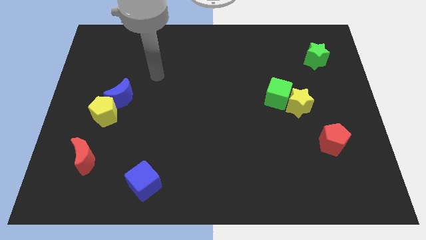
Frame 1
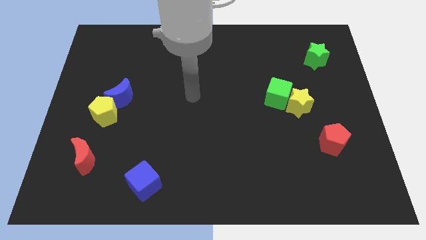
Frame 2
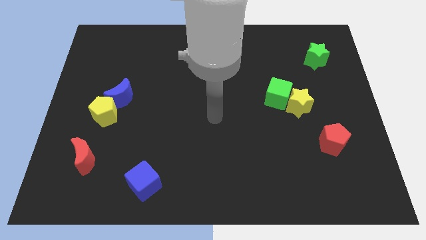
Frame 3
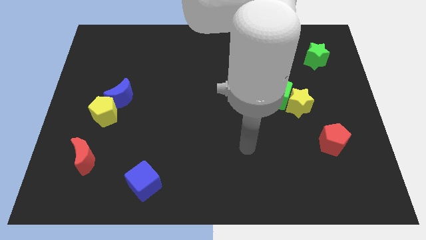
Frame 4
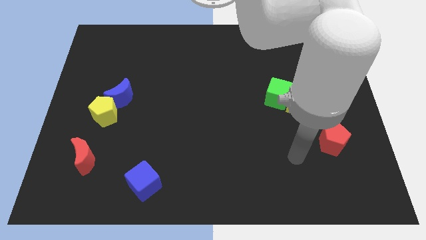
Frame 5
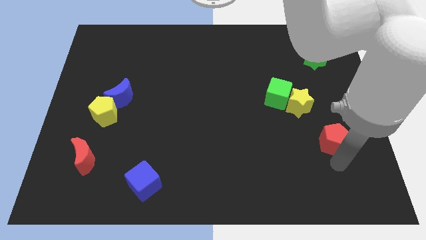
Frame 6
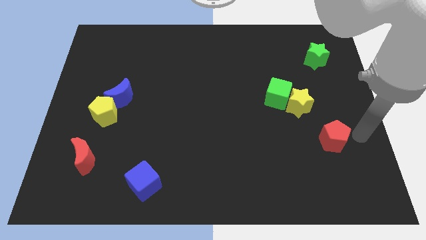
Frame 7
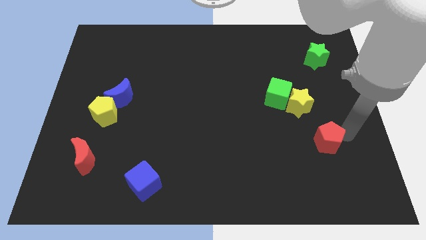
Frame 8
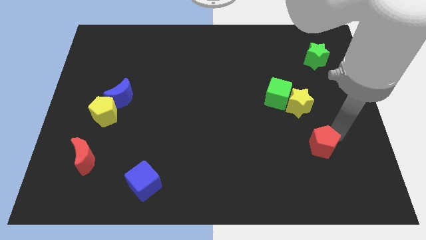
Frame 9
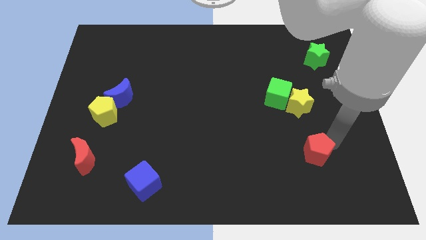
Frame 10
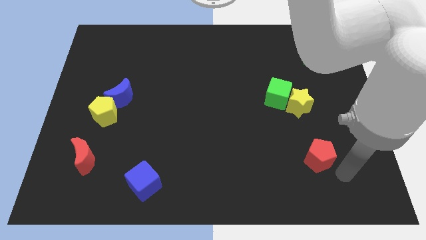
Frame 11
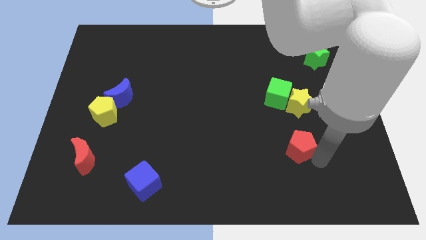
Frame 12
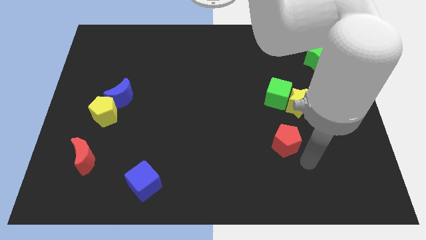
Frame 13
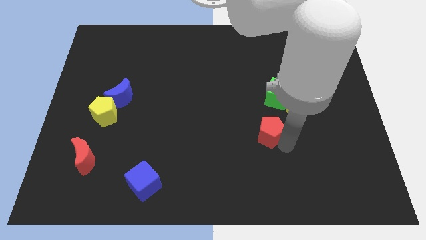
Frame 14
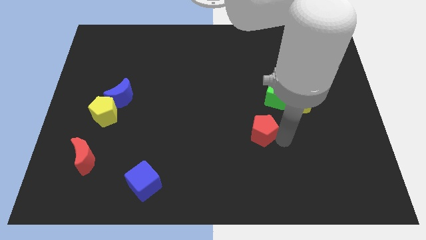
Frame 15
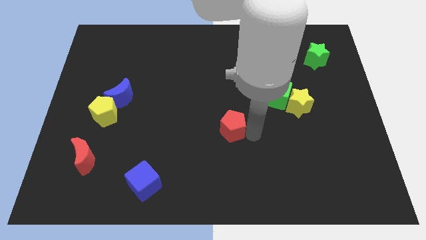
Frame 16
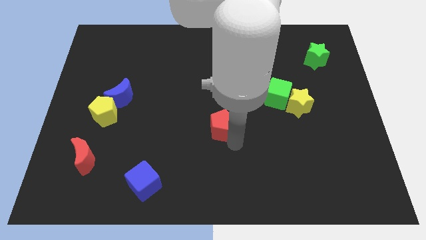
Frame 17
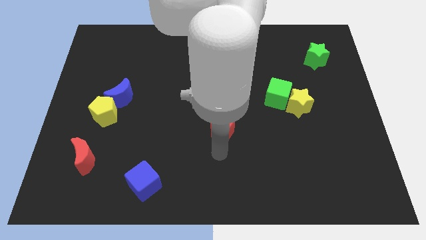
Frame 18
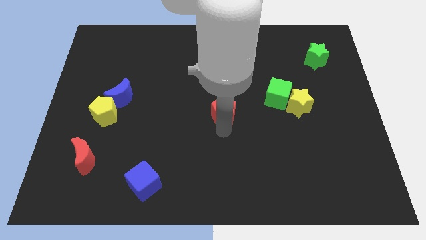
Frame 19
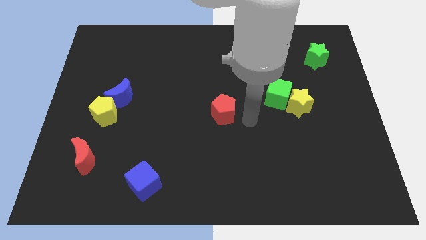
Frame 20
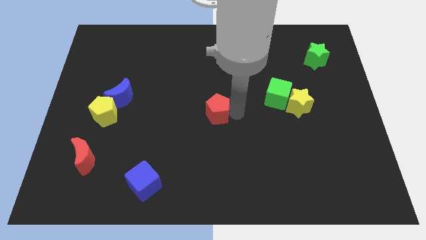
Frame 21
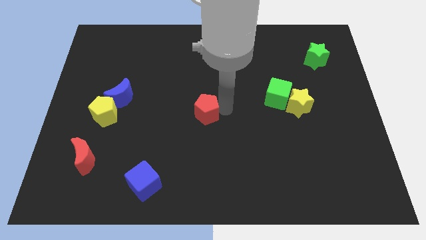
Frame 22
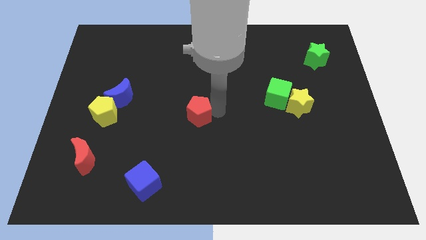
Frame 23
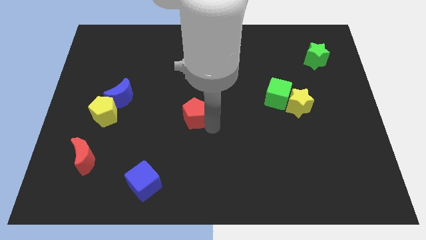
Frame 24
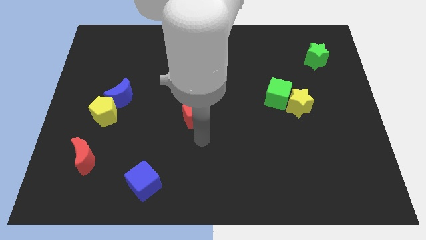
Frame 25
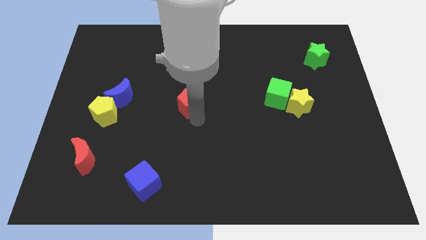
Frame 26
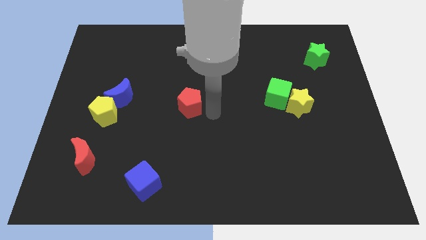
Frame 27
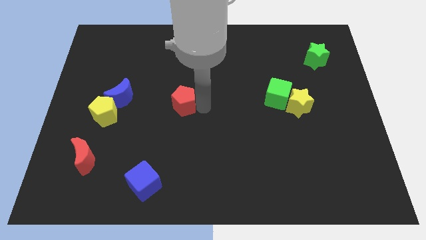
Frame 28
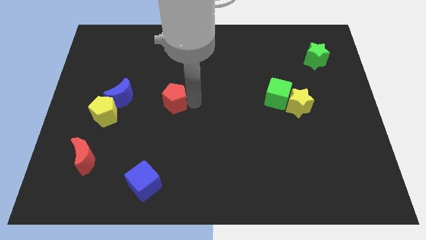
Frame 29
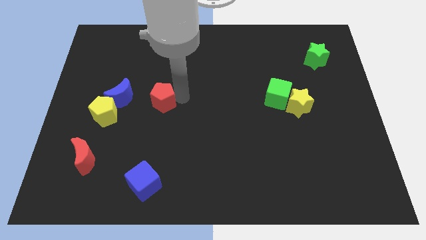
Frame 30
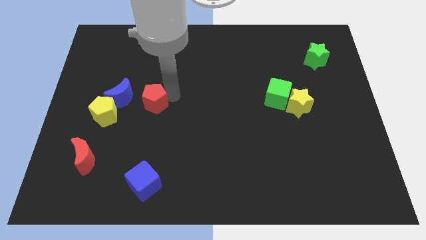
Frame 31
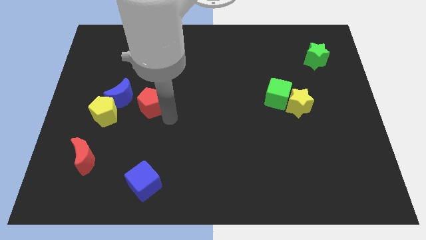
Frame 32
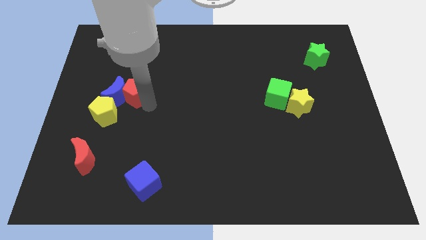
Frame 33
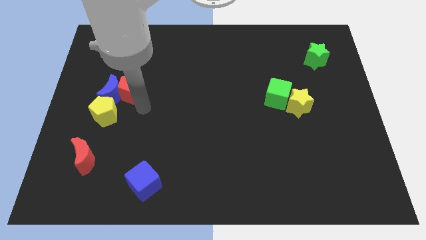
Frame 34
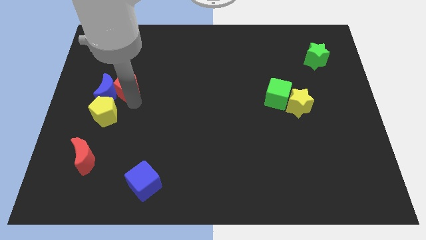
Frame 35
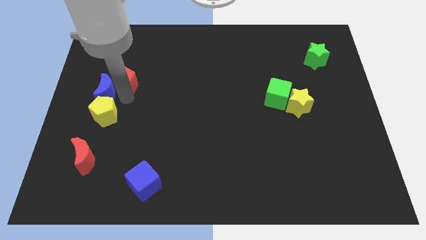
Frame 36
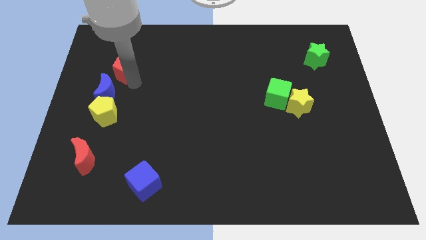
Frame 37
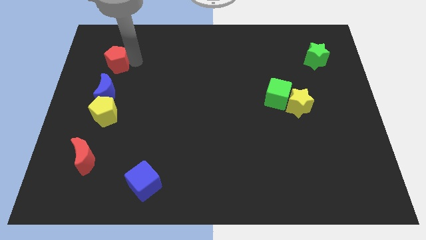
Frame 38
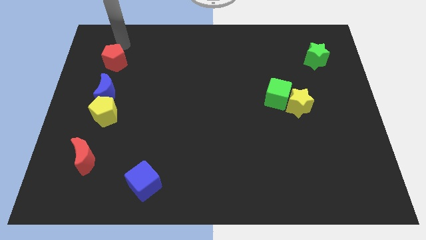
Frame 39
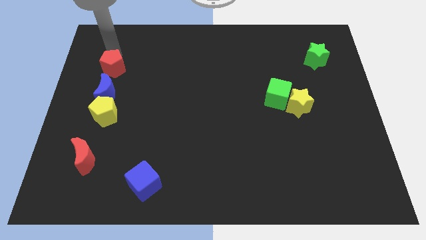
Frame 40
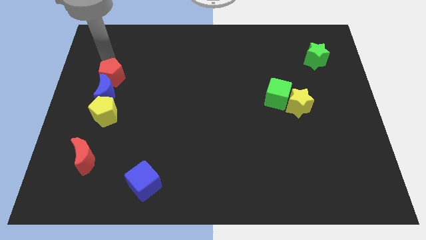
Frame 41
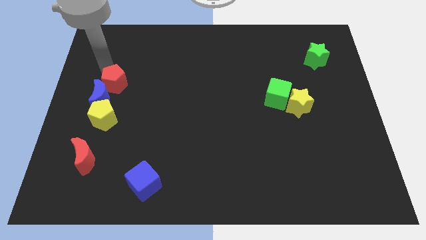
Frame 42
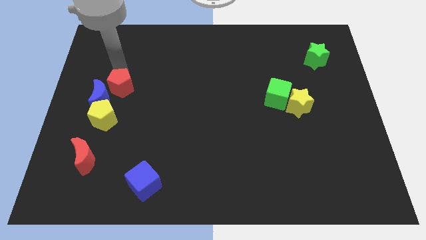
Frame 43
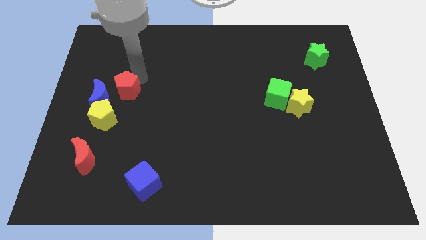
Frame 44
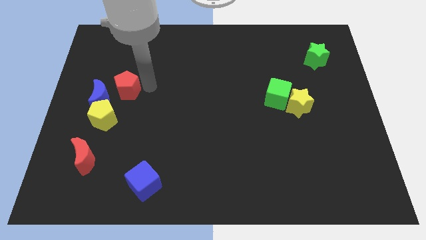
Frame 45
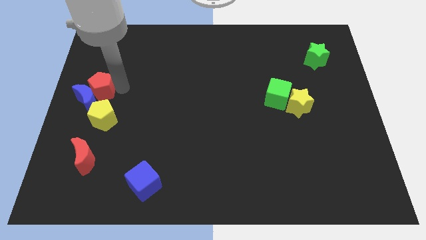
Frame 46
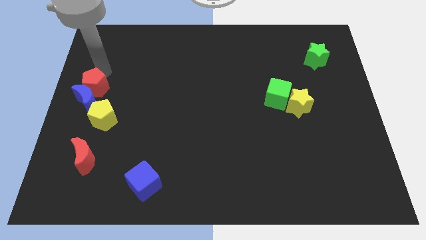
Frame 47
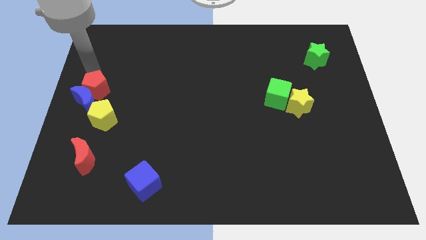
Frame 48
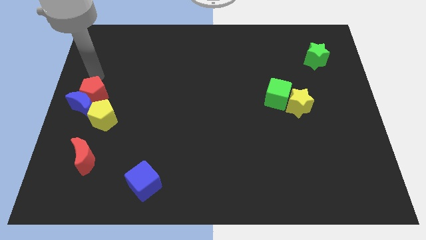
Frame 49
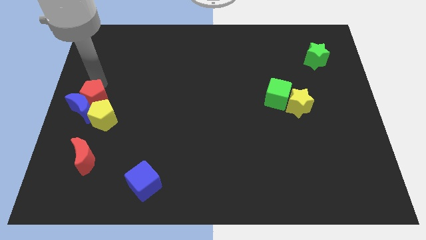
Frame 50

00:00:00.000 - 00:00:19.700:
move the red pentagon to the top side of the red moon

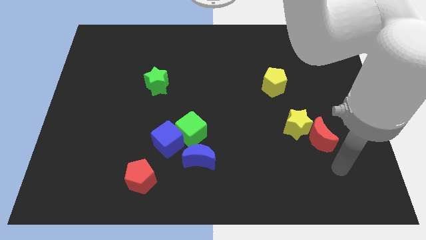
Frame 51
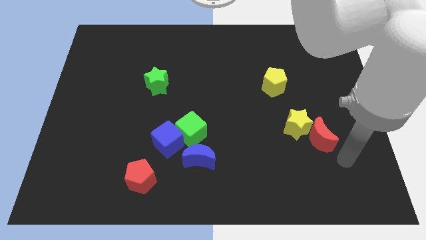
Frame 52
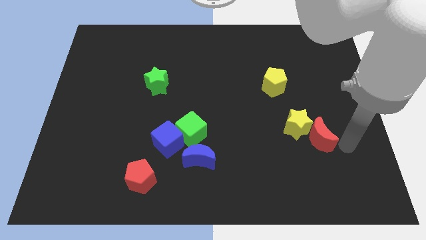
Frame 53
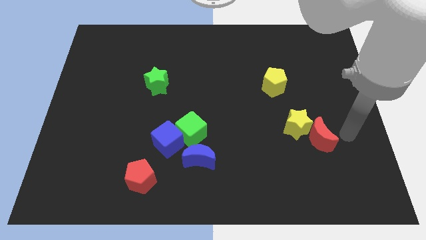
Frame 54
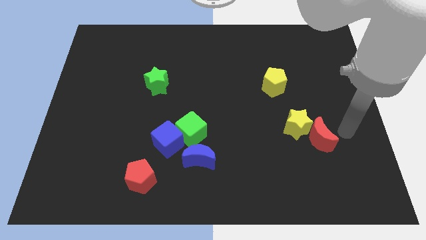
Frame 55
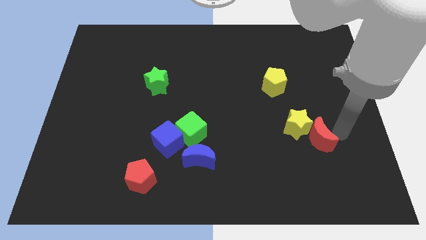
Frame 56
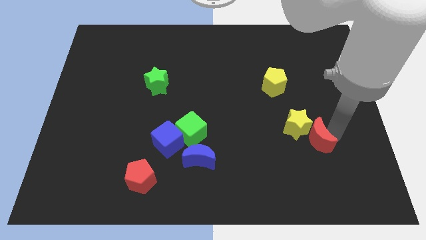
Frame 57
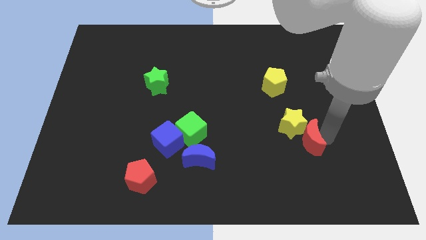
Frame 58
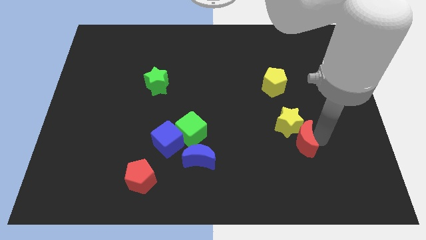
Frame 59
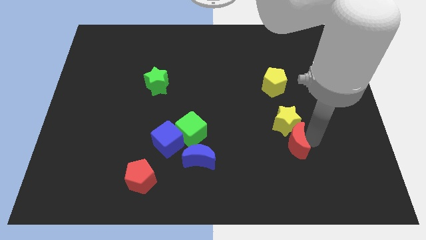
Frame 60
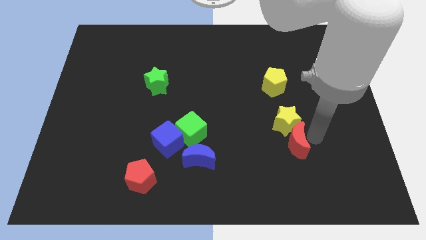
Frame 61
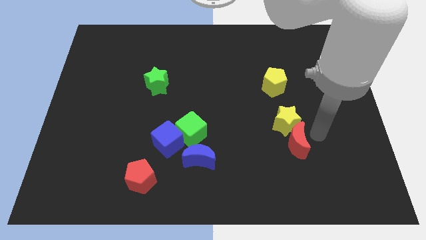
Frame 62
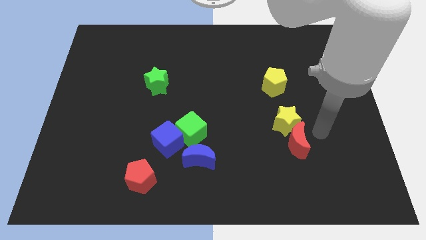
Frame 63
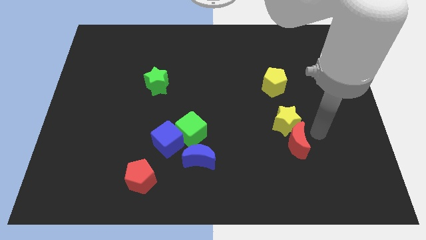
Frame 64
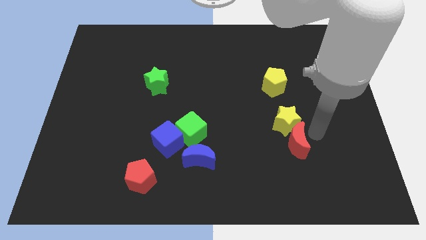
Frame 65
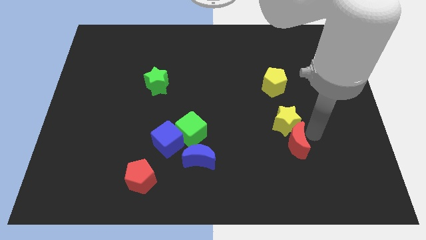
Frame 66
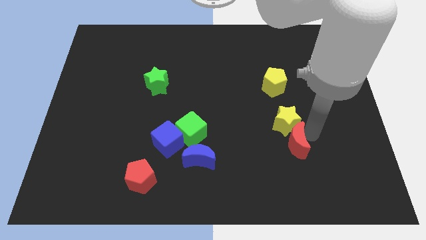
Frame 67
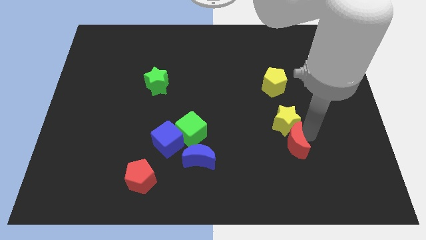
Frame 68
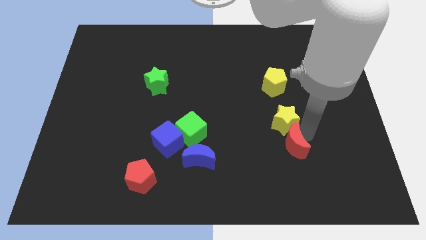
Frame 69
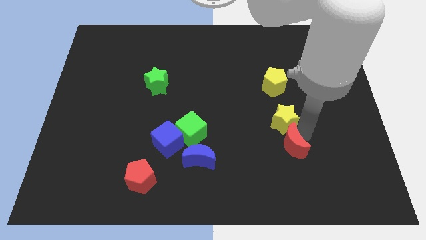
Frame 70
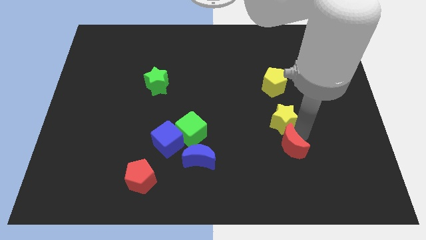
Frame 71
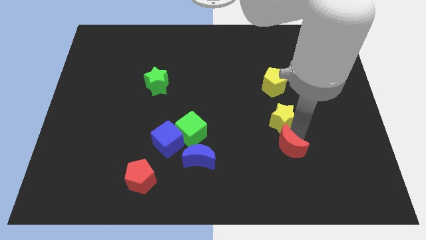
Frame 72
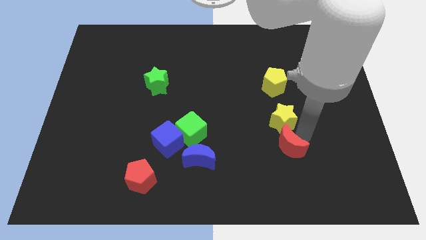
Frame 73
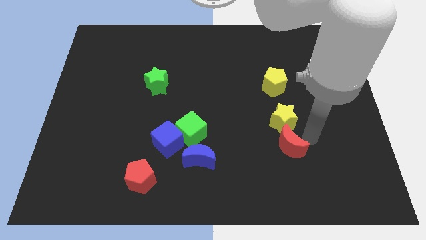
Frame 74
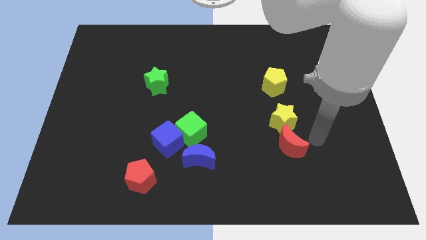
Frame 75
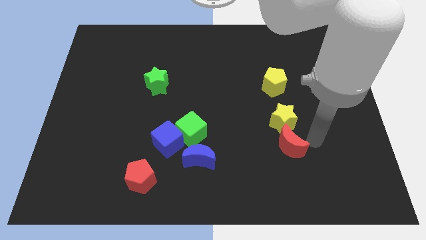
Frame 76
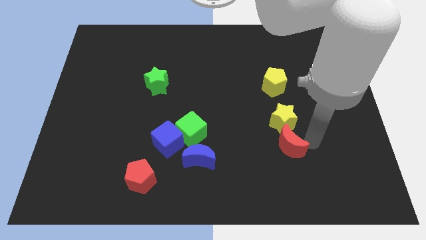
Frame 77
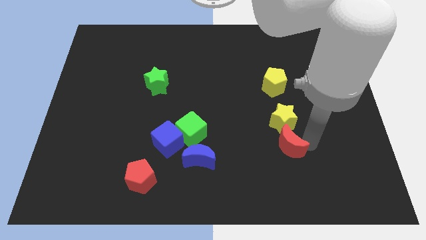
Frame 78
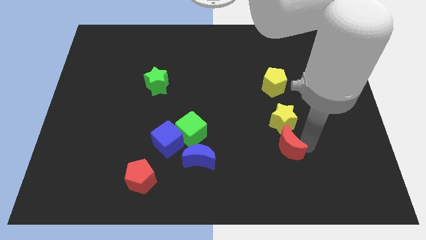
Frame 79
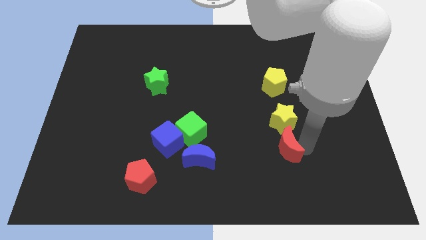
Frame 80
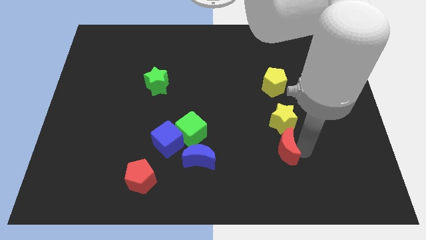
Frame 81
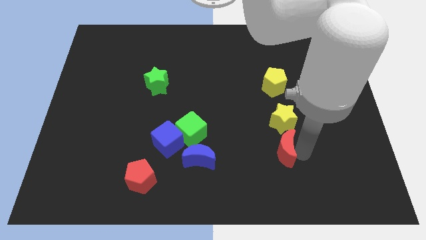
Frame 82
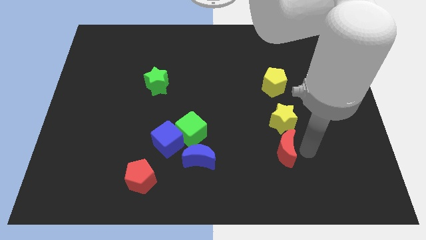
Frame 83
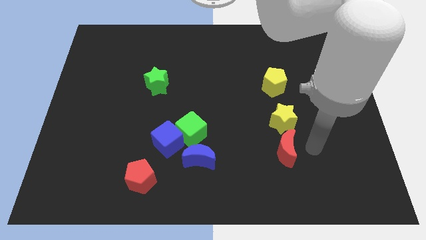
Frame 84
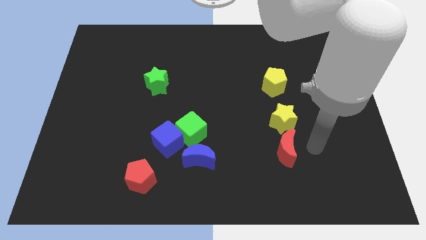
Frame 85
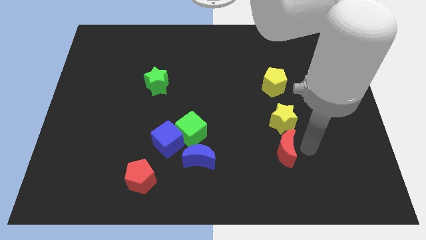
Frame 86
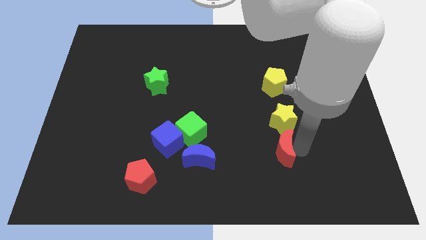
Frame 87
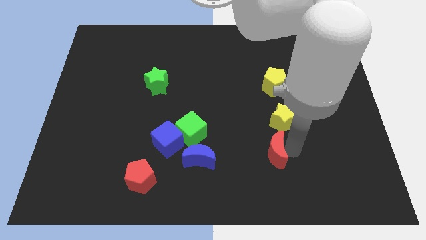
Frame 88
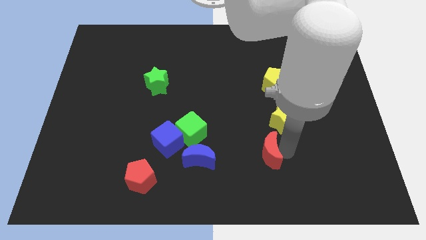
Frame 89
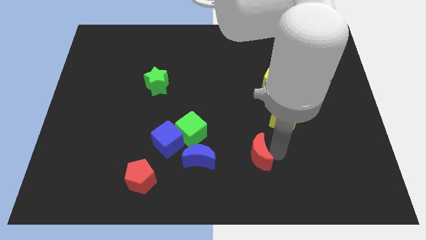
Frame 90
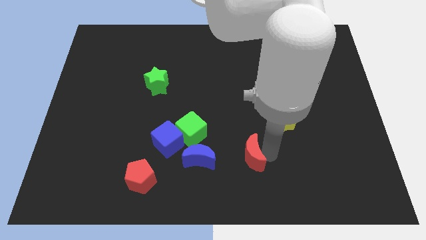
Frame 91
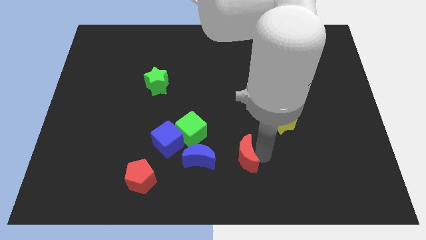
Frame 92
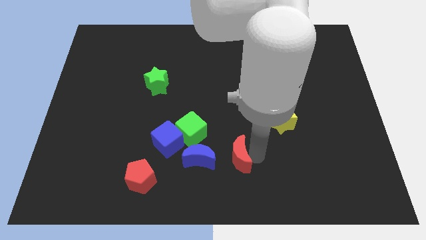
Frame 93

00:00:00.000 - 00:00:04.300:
move the red moon to the bottom right of the green cube
